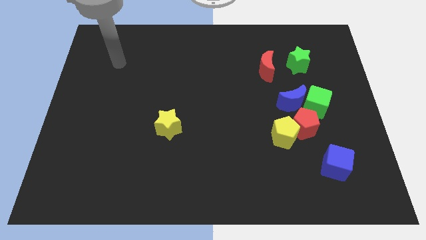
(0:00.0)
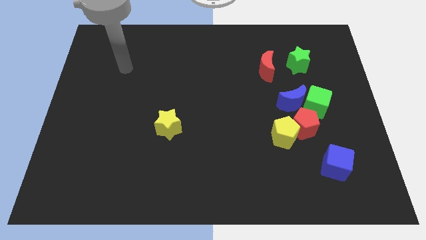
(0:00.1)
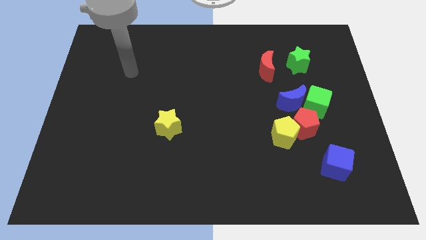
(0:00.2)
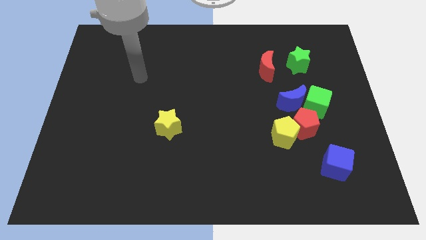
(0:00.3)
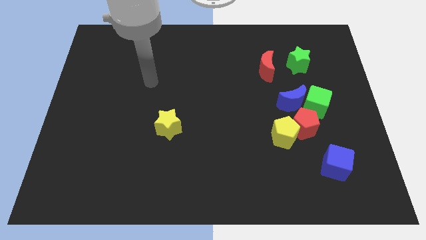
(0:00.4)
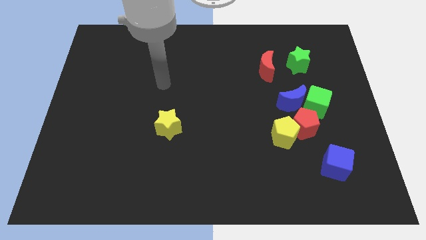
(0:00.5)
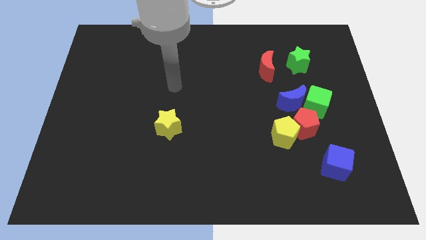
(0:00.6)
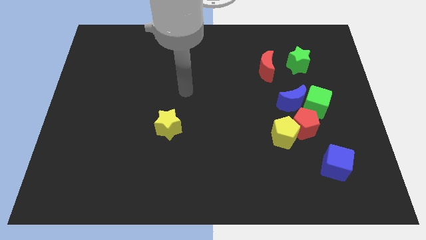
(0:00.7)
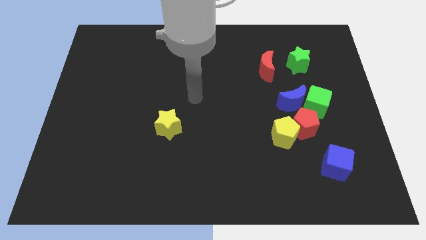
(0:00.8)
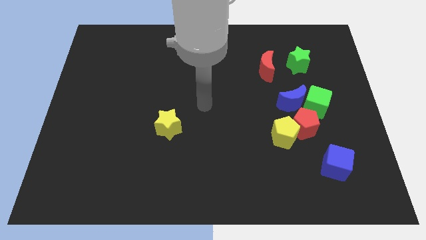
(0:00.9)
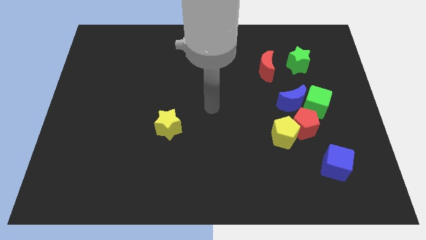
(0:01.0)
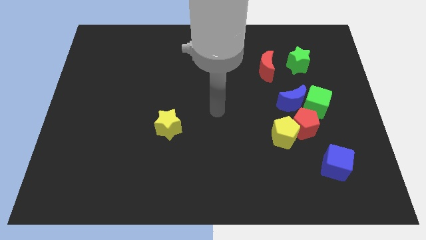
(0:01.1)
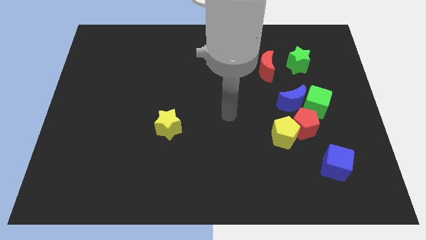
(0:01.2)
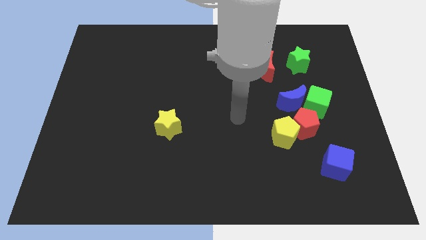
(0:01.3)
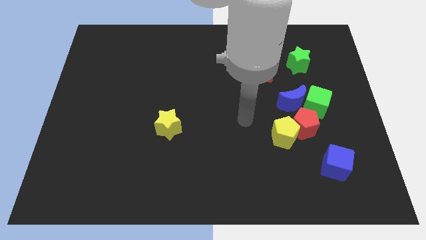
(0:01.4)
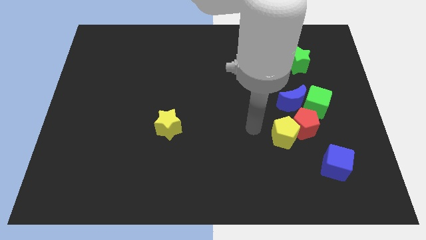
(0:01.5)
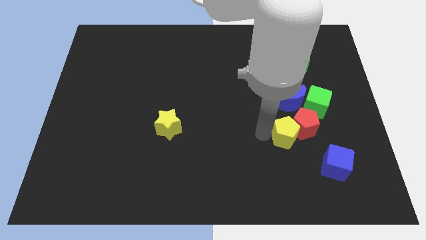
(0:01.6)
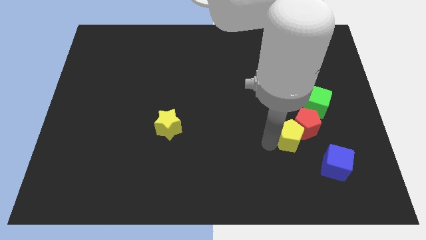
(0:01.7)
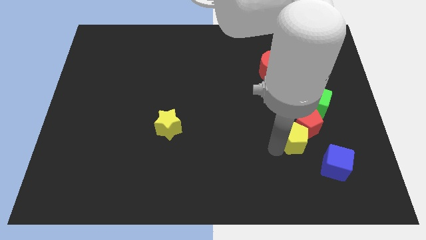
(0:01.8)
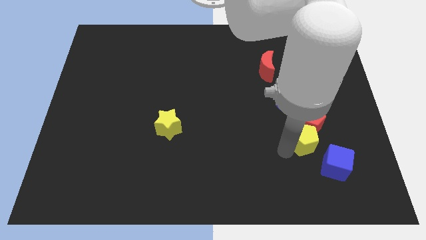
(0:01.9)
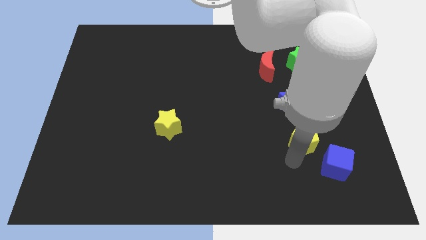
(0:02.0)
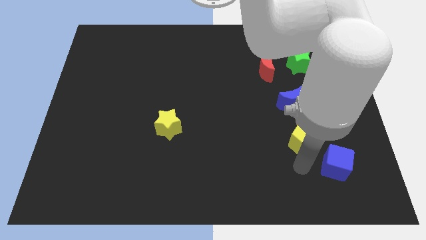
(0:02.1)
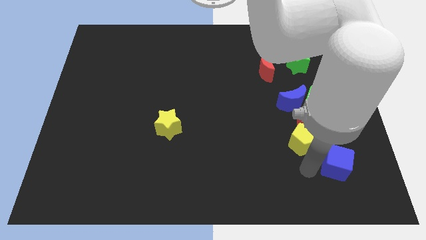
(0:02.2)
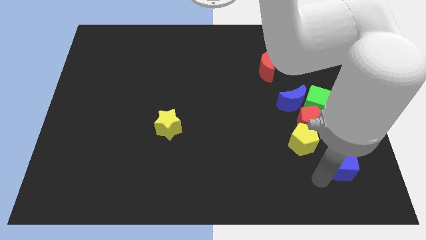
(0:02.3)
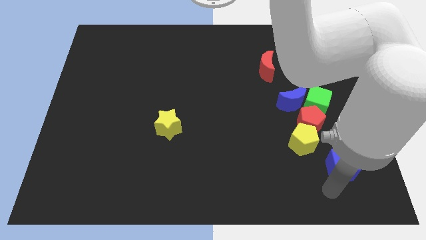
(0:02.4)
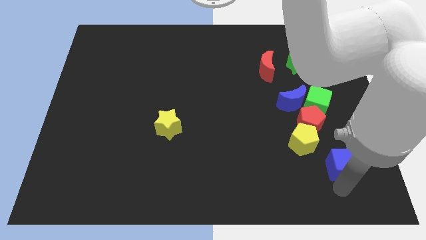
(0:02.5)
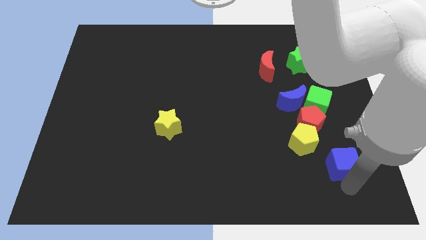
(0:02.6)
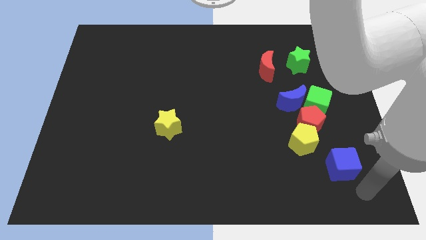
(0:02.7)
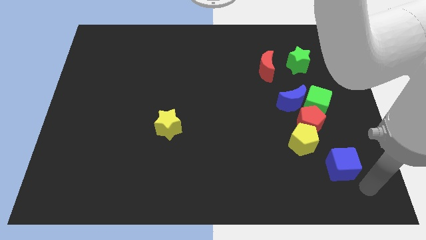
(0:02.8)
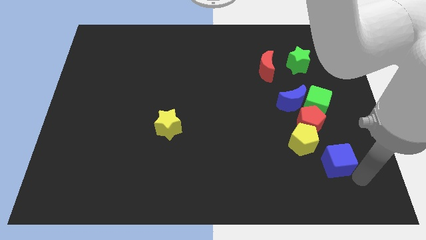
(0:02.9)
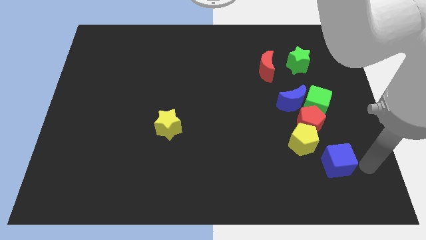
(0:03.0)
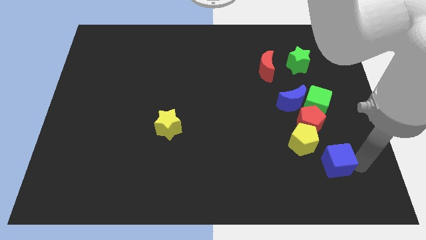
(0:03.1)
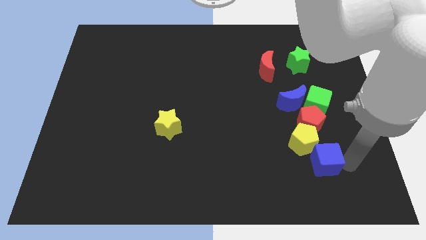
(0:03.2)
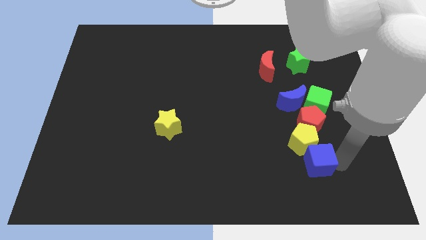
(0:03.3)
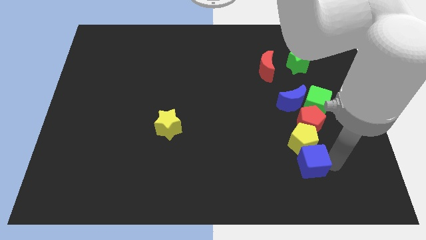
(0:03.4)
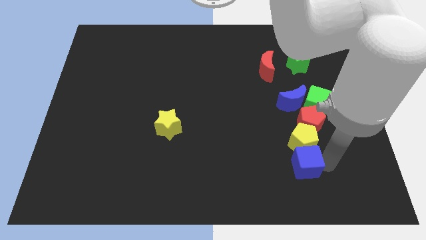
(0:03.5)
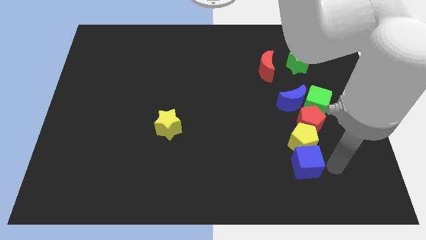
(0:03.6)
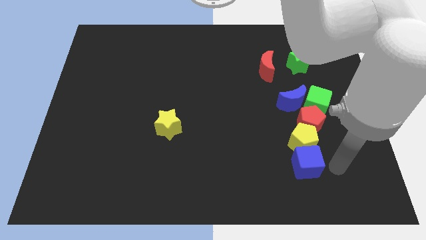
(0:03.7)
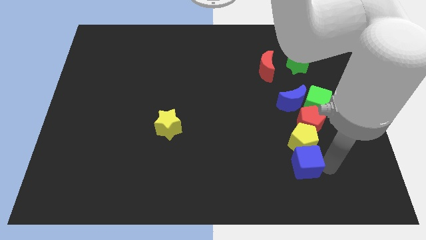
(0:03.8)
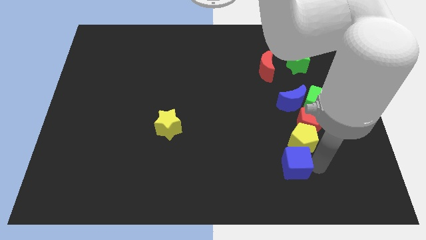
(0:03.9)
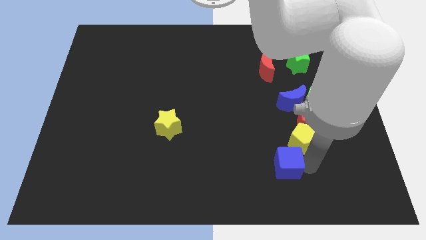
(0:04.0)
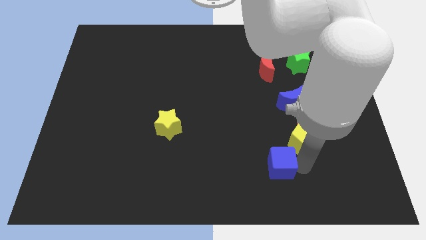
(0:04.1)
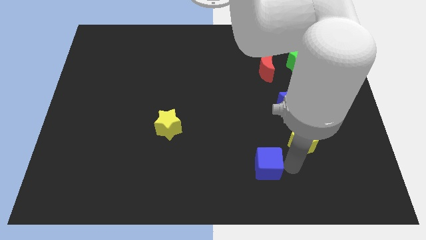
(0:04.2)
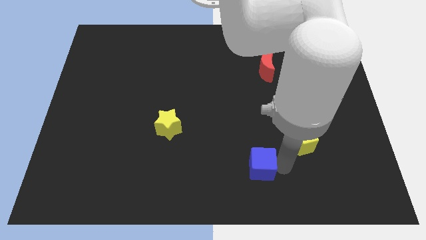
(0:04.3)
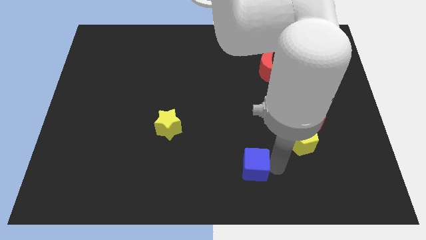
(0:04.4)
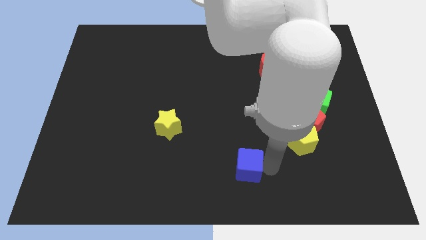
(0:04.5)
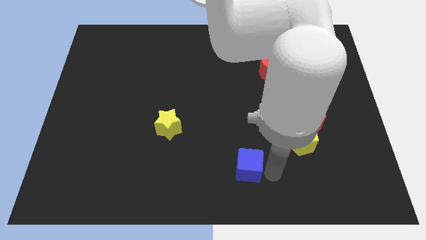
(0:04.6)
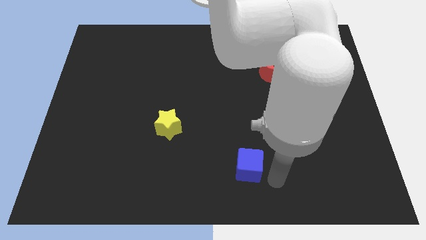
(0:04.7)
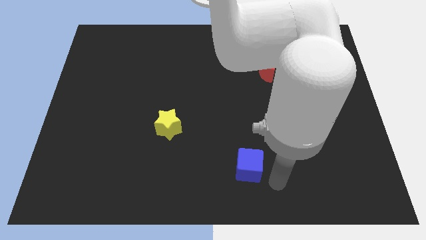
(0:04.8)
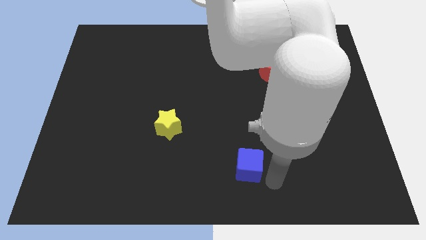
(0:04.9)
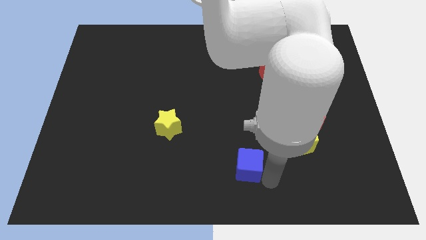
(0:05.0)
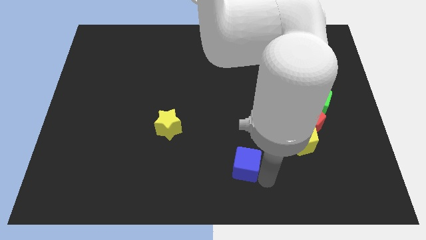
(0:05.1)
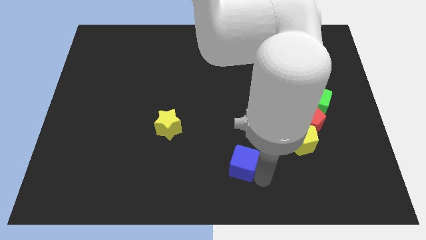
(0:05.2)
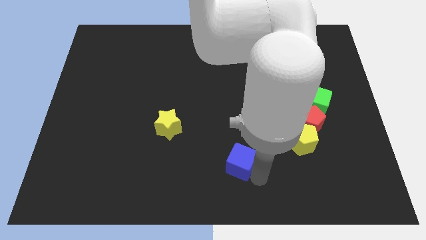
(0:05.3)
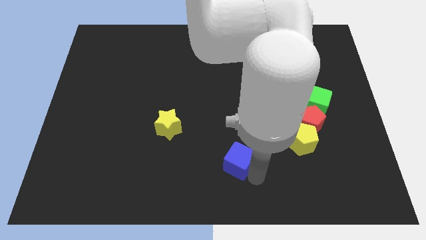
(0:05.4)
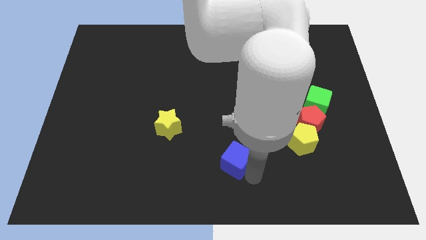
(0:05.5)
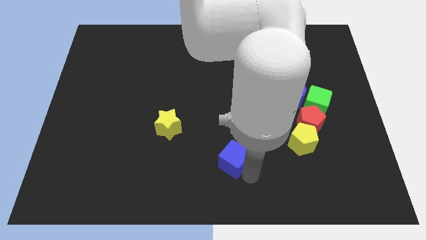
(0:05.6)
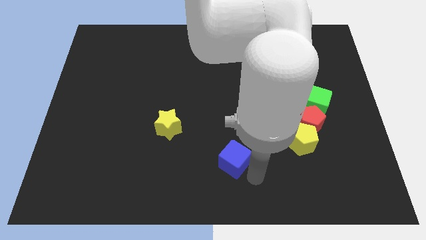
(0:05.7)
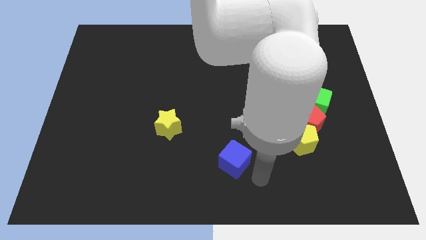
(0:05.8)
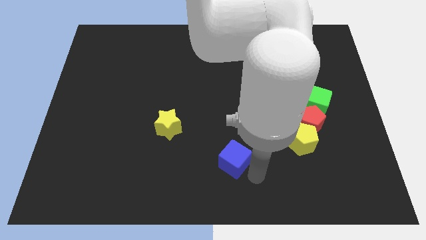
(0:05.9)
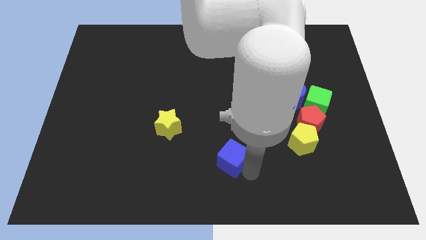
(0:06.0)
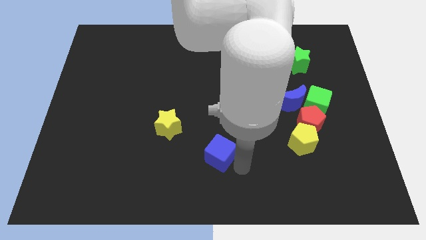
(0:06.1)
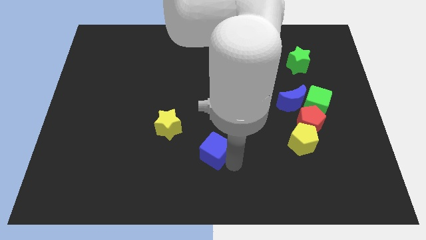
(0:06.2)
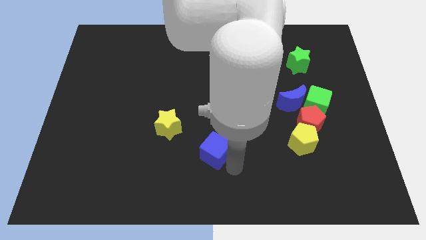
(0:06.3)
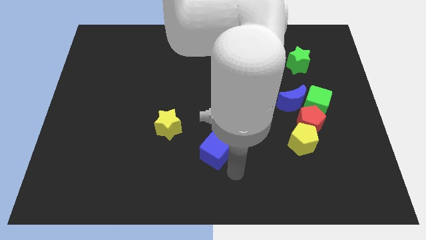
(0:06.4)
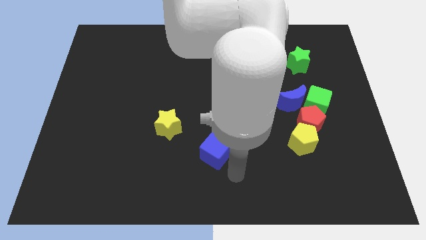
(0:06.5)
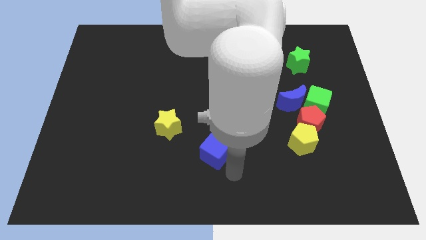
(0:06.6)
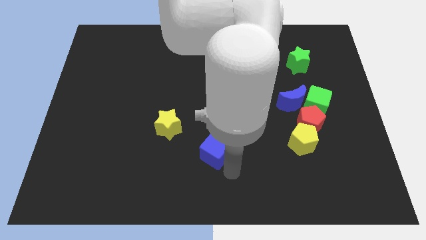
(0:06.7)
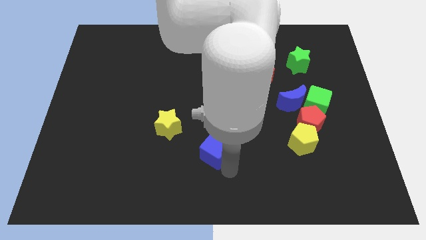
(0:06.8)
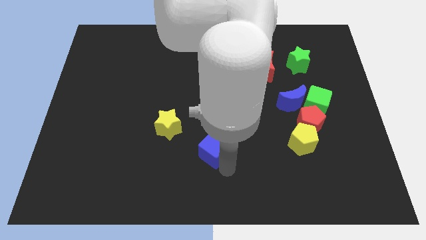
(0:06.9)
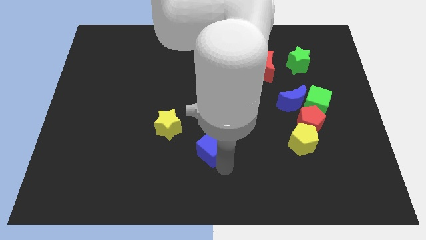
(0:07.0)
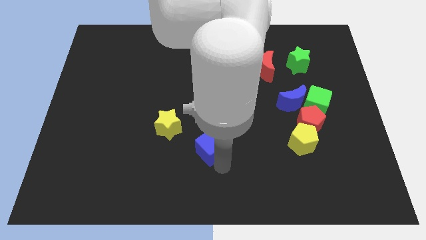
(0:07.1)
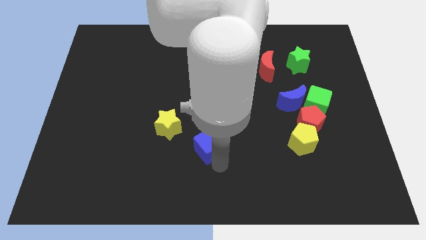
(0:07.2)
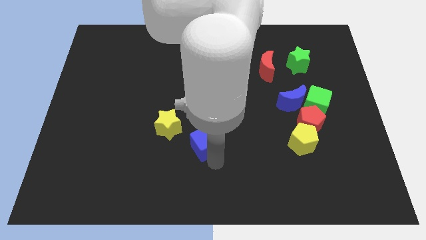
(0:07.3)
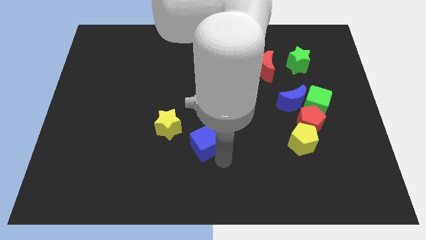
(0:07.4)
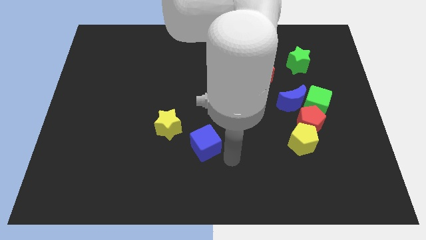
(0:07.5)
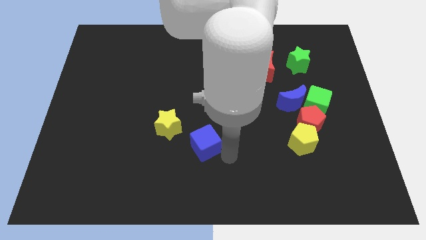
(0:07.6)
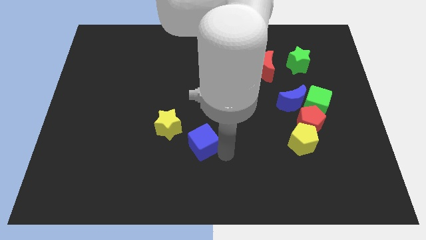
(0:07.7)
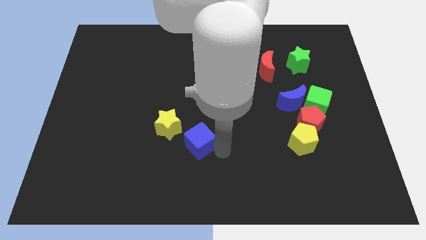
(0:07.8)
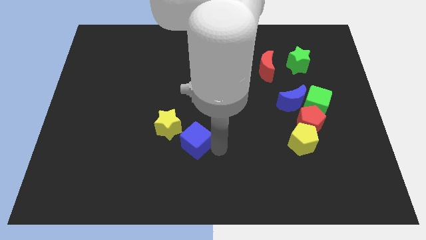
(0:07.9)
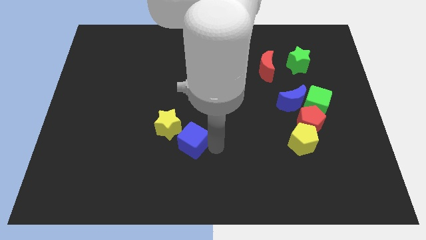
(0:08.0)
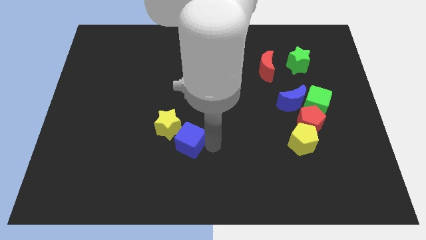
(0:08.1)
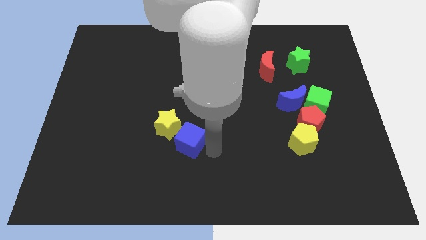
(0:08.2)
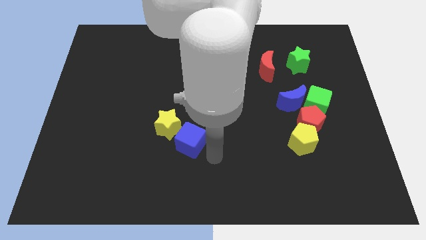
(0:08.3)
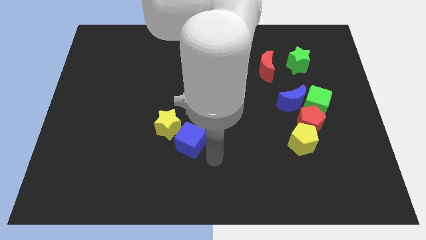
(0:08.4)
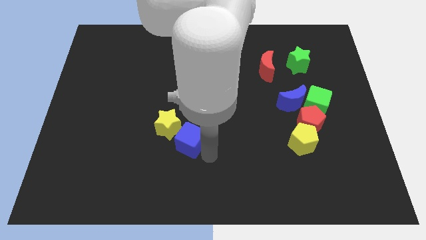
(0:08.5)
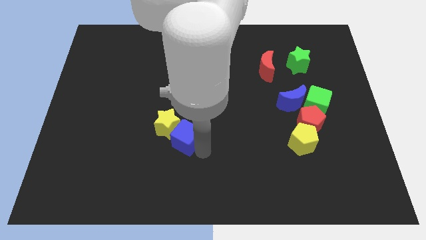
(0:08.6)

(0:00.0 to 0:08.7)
put the blue cube next to the yellow star
